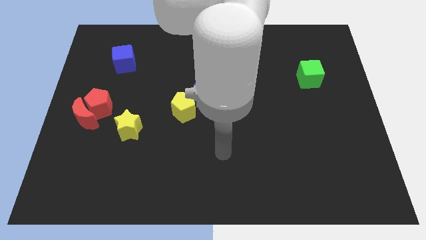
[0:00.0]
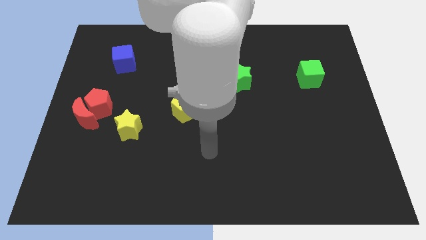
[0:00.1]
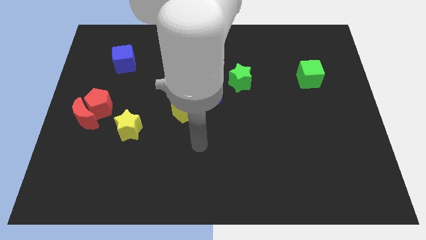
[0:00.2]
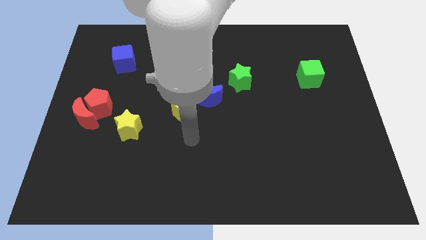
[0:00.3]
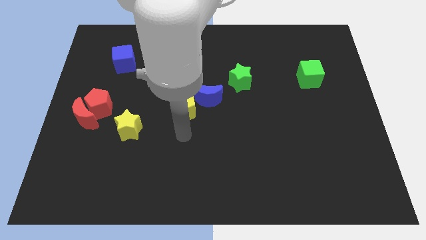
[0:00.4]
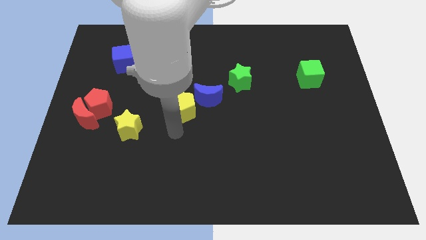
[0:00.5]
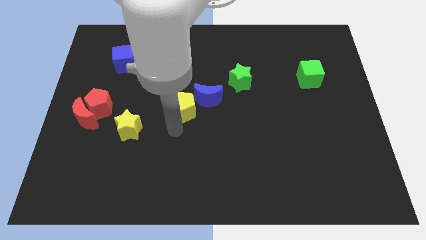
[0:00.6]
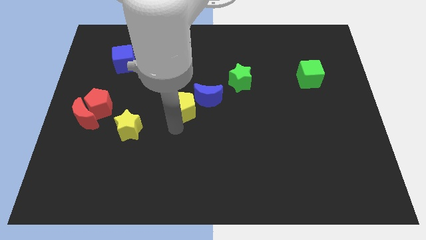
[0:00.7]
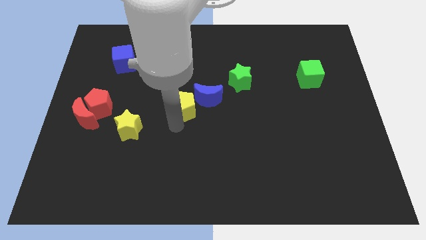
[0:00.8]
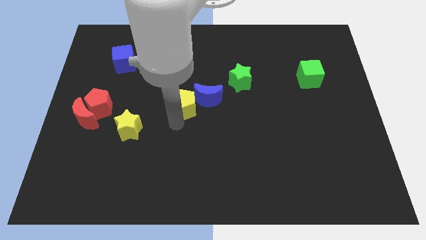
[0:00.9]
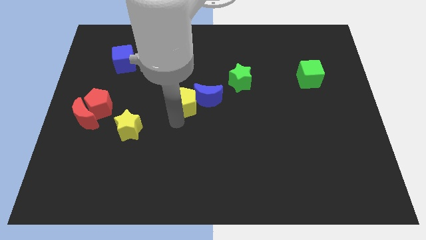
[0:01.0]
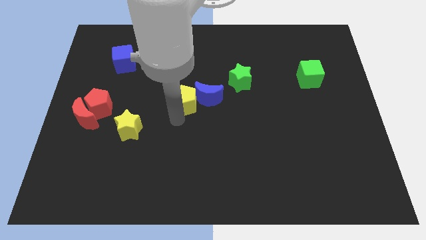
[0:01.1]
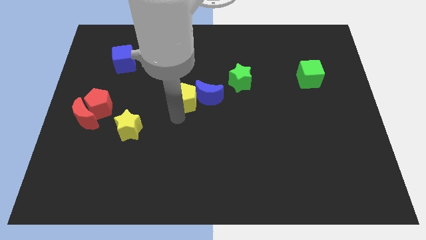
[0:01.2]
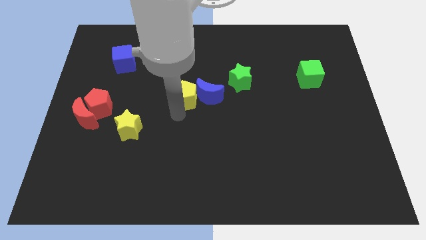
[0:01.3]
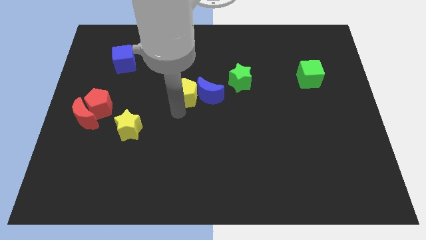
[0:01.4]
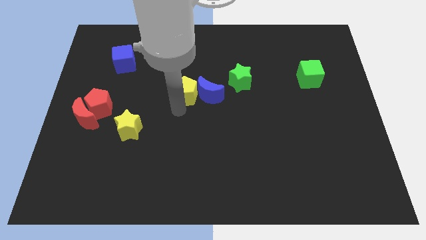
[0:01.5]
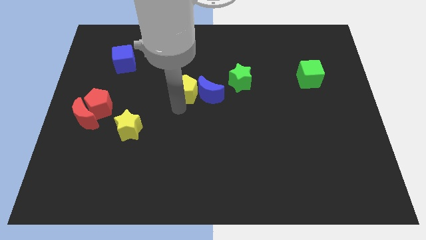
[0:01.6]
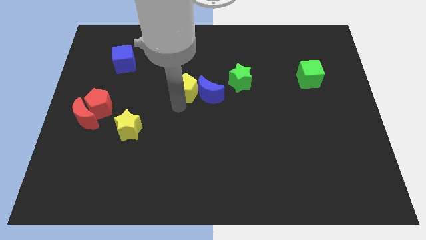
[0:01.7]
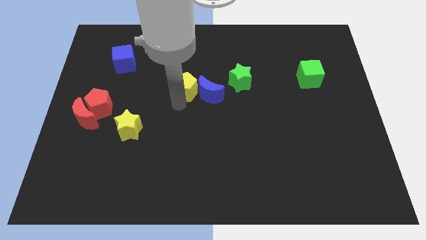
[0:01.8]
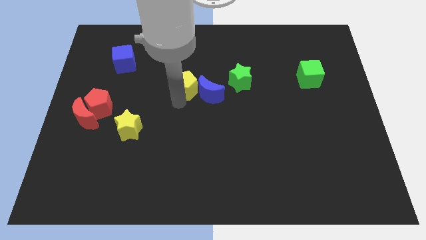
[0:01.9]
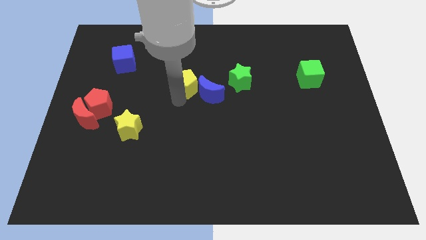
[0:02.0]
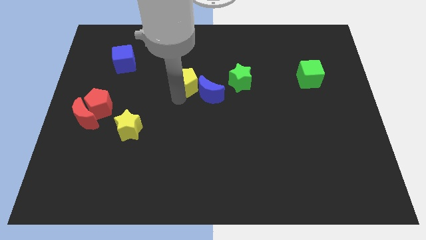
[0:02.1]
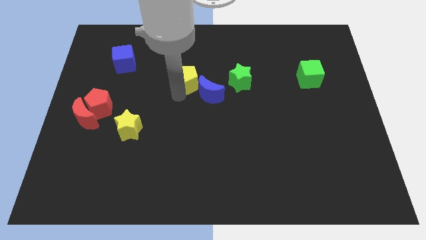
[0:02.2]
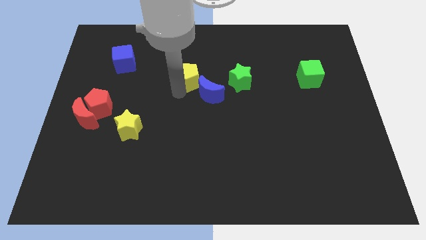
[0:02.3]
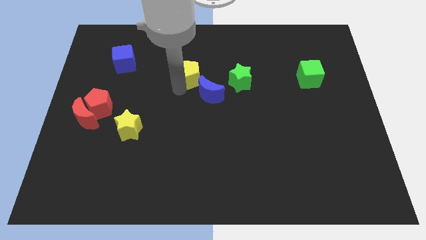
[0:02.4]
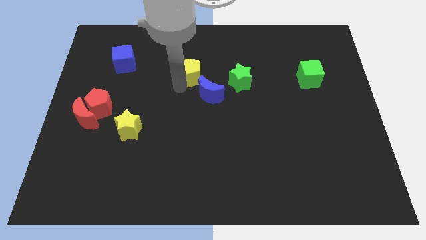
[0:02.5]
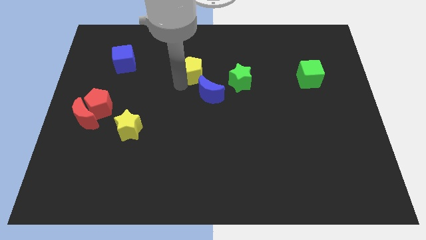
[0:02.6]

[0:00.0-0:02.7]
push the yellow pentagon diagonally up and to the right slightly

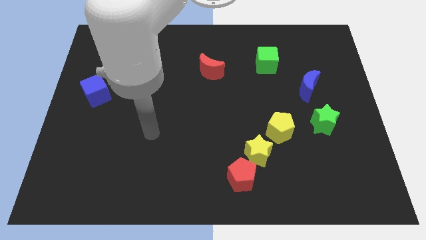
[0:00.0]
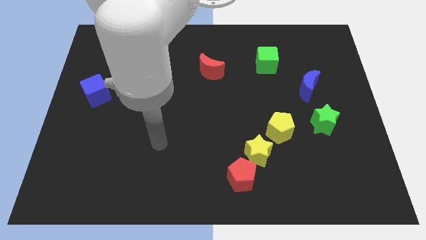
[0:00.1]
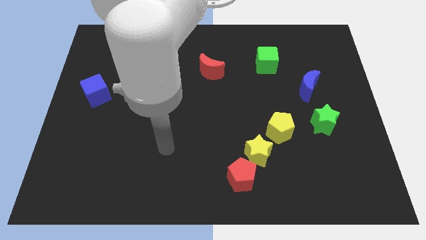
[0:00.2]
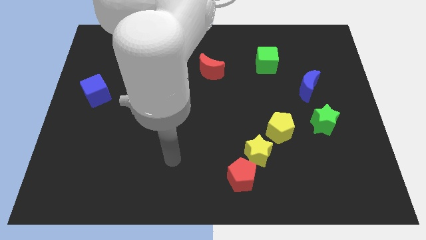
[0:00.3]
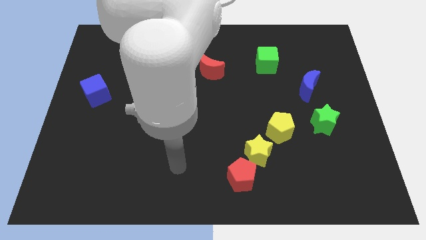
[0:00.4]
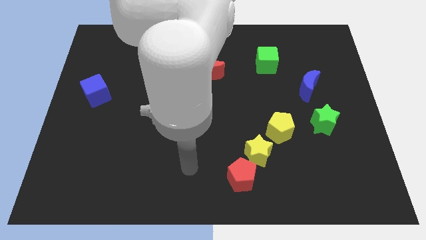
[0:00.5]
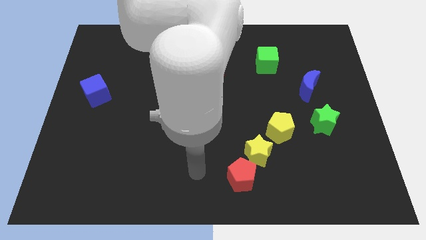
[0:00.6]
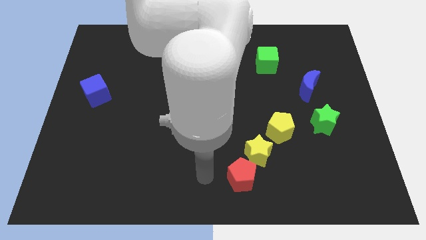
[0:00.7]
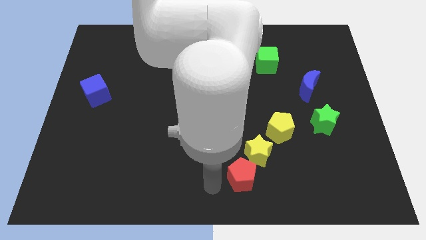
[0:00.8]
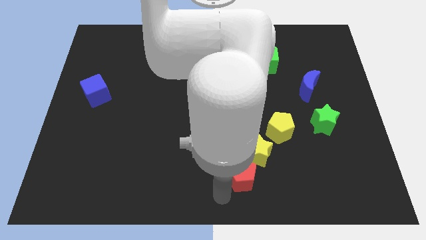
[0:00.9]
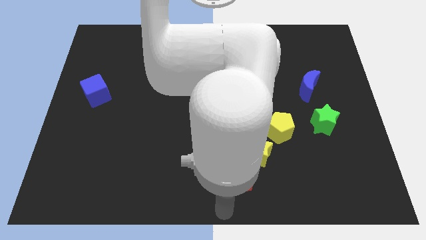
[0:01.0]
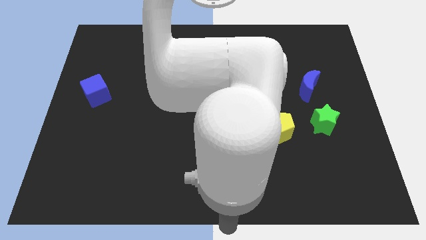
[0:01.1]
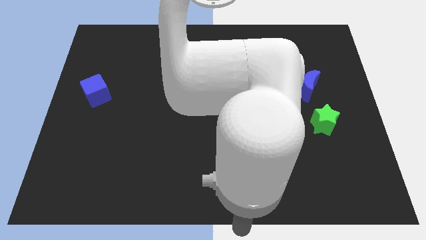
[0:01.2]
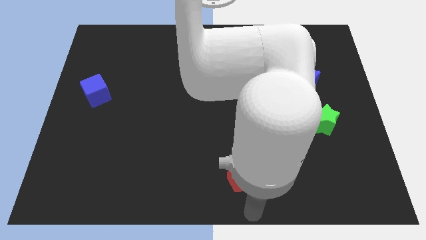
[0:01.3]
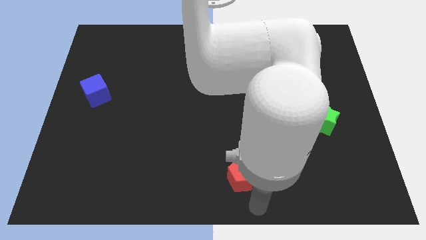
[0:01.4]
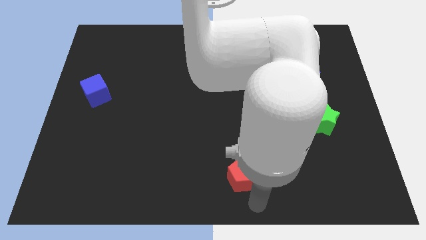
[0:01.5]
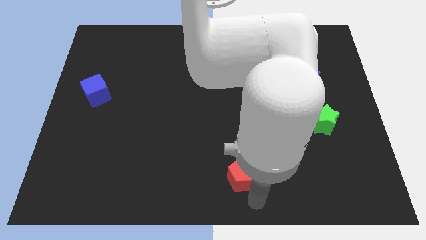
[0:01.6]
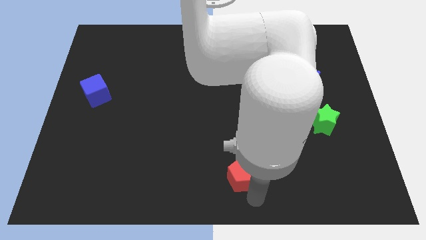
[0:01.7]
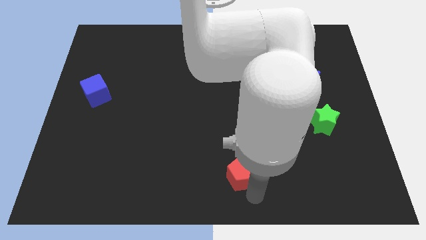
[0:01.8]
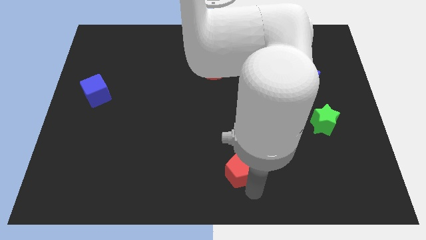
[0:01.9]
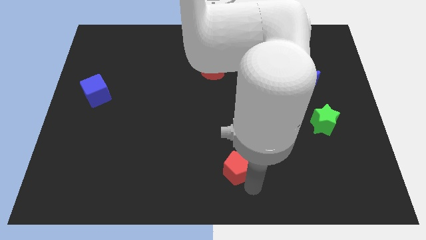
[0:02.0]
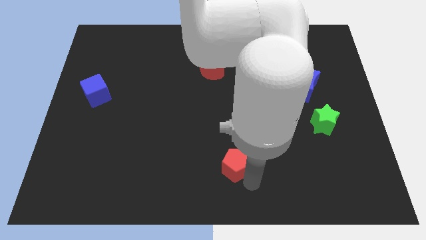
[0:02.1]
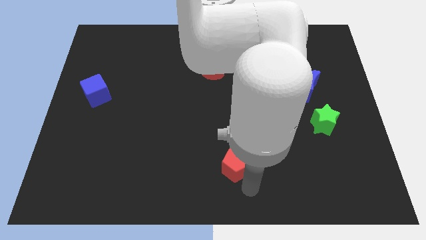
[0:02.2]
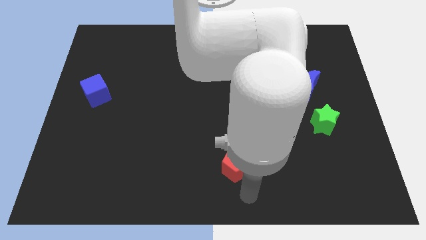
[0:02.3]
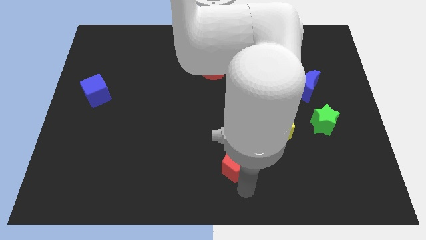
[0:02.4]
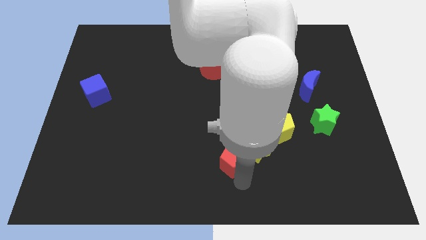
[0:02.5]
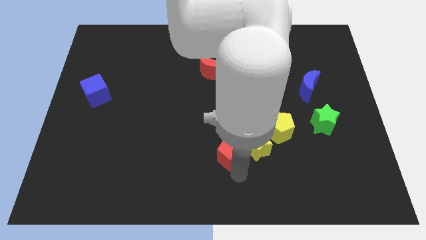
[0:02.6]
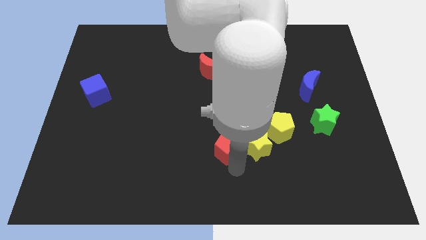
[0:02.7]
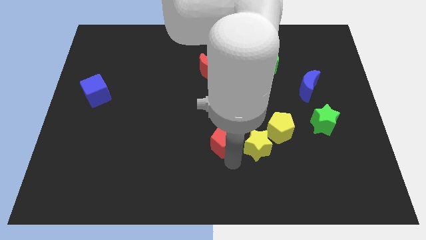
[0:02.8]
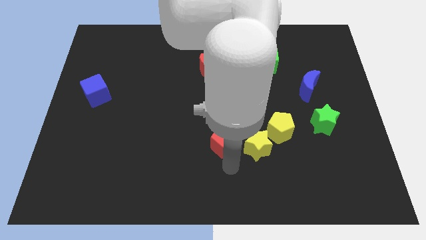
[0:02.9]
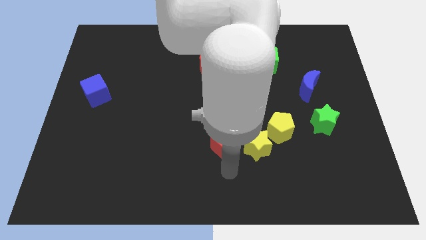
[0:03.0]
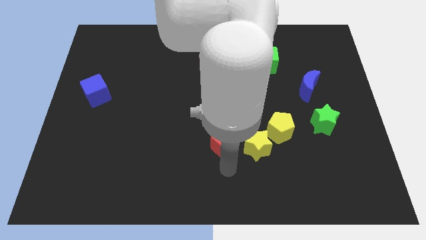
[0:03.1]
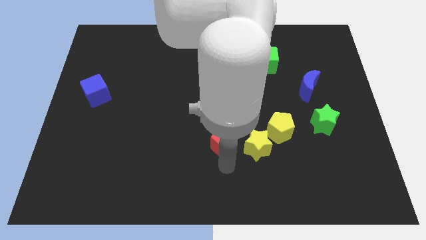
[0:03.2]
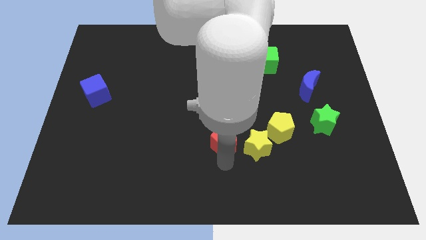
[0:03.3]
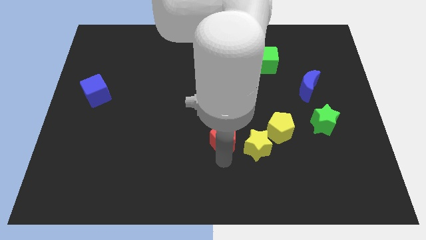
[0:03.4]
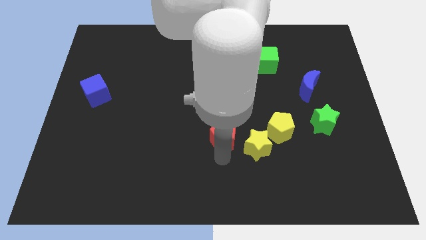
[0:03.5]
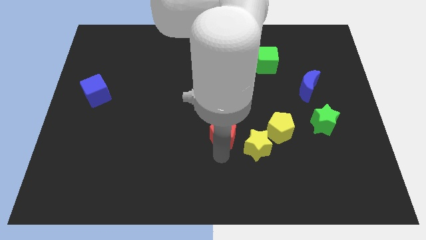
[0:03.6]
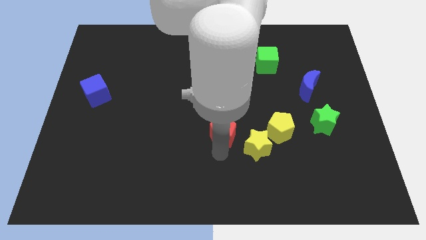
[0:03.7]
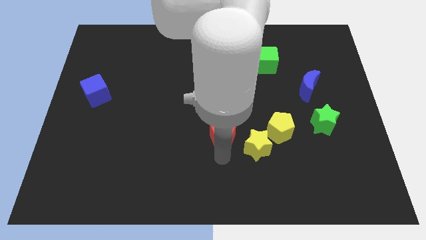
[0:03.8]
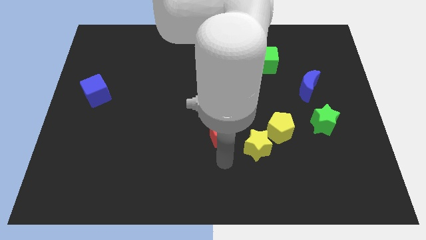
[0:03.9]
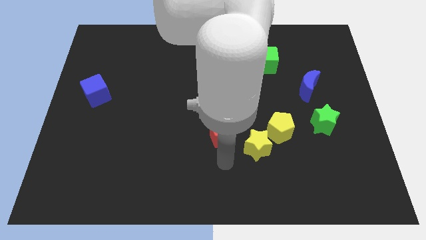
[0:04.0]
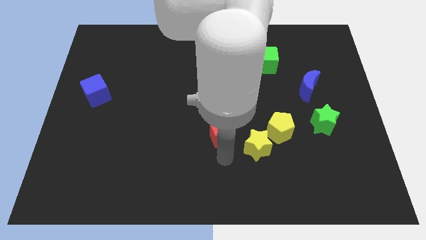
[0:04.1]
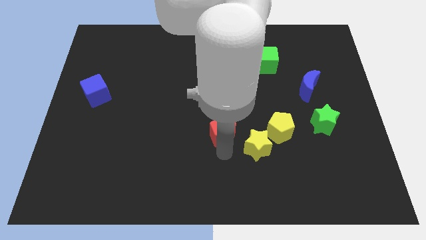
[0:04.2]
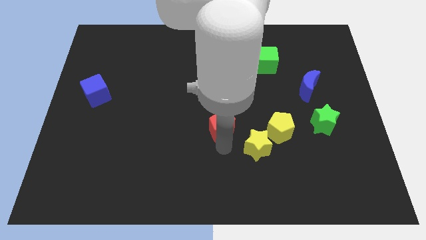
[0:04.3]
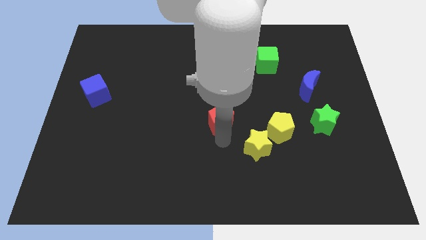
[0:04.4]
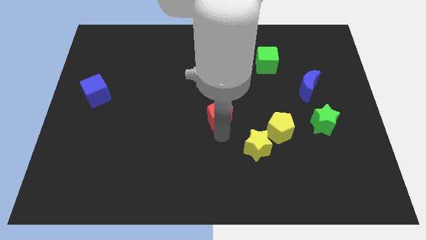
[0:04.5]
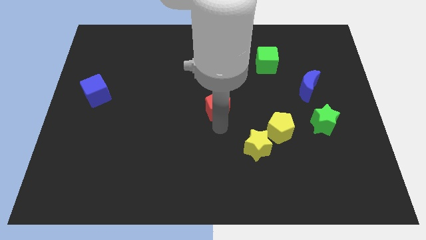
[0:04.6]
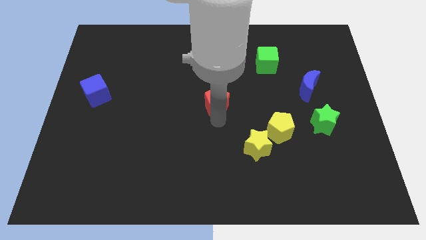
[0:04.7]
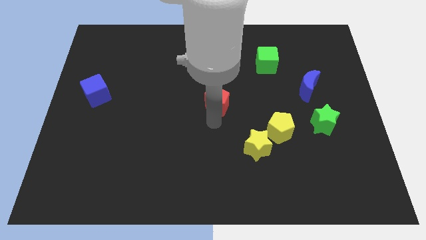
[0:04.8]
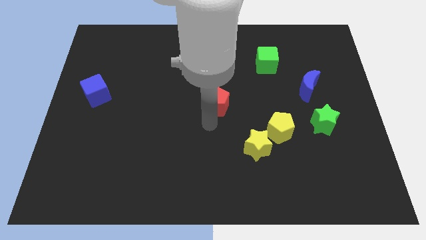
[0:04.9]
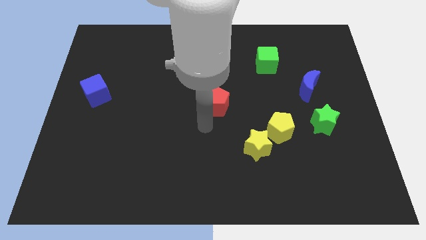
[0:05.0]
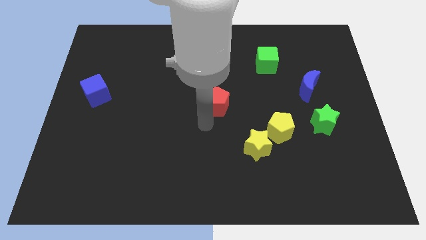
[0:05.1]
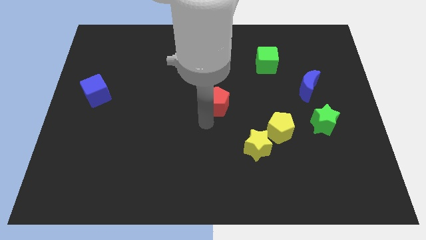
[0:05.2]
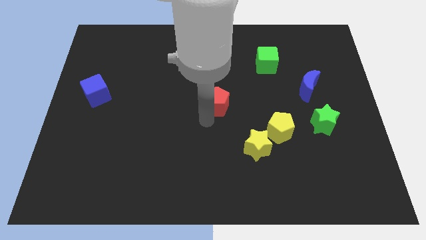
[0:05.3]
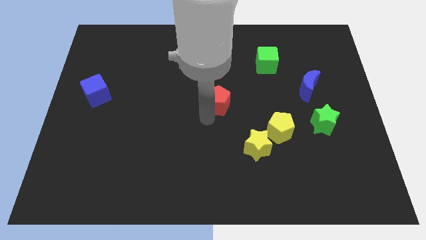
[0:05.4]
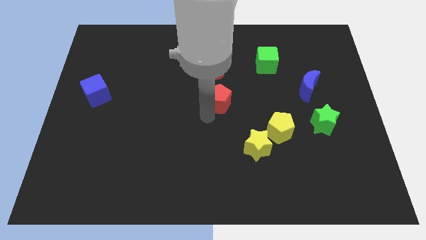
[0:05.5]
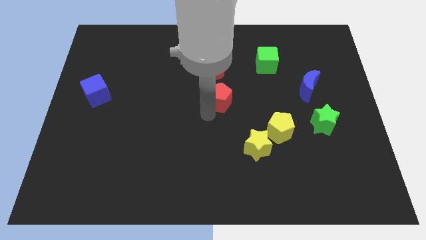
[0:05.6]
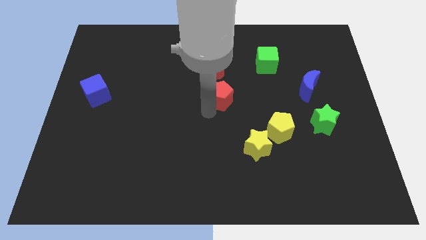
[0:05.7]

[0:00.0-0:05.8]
move the red pentagon up
